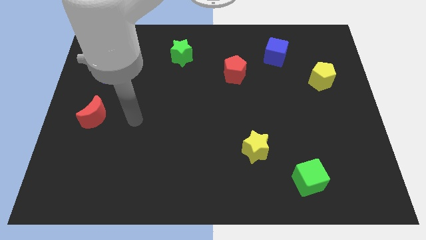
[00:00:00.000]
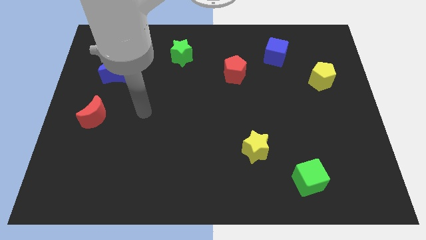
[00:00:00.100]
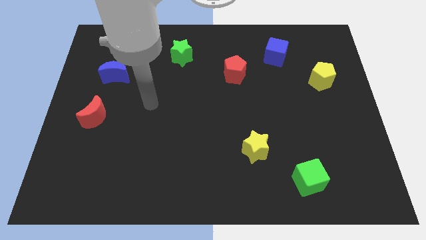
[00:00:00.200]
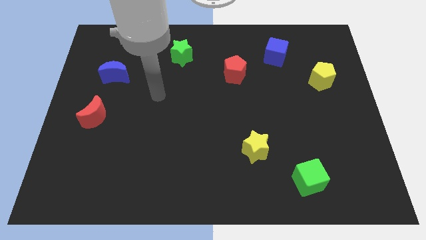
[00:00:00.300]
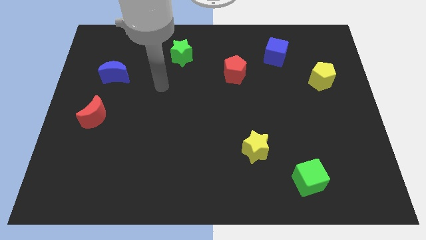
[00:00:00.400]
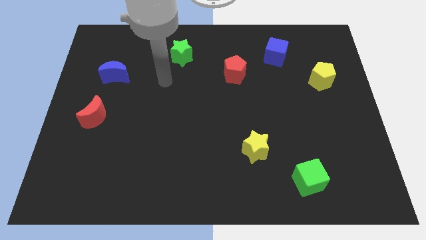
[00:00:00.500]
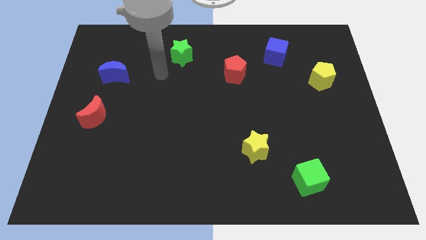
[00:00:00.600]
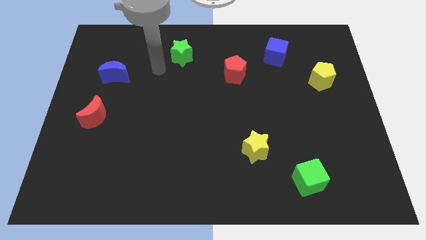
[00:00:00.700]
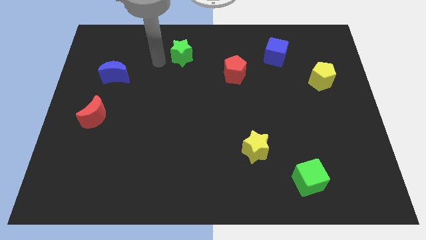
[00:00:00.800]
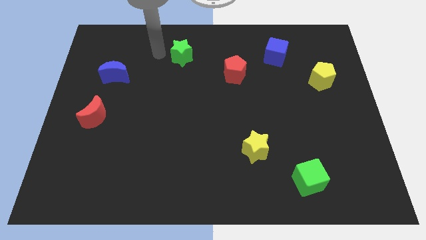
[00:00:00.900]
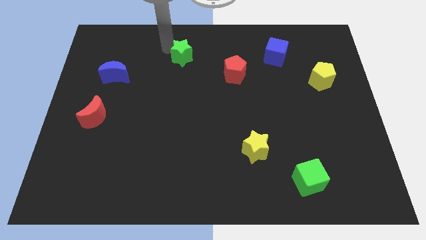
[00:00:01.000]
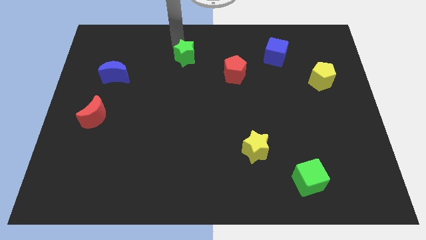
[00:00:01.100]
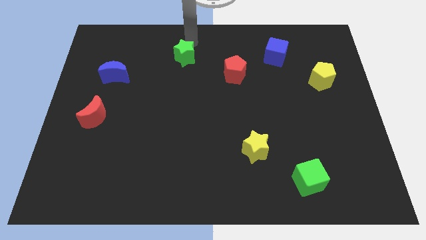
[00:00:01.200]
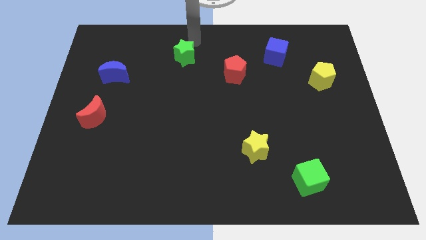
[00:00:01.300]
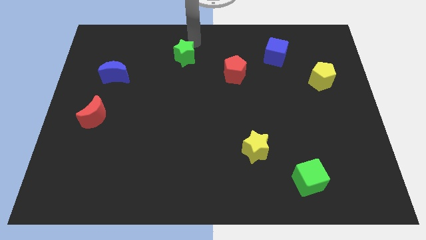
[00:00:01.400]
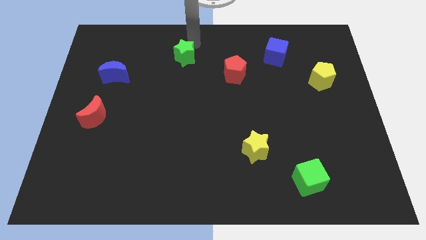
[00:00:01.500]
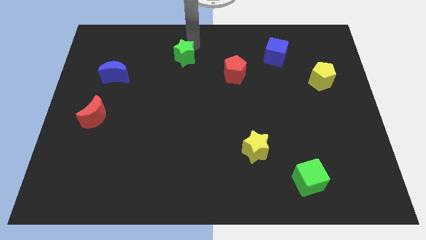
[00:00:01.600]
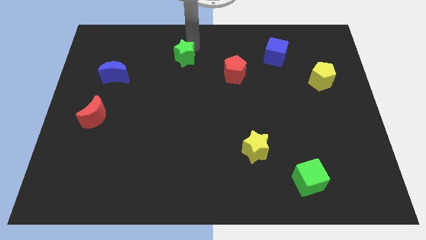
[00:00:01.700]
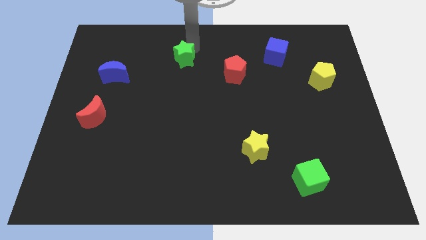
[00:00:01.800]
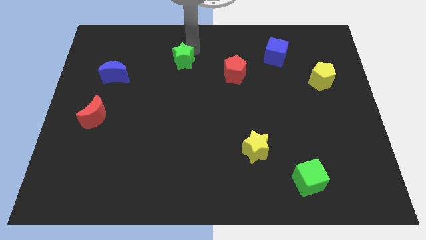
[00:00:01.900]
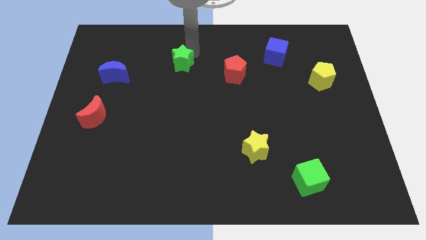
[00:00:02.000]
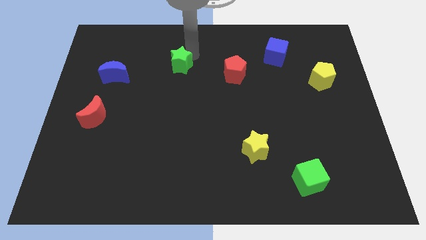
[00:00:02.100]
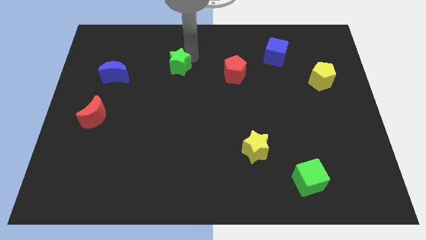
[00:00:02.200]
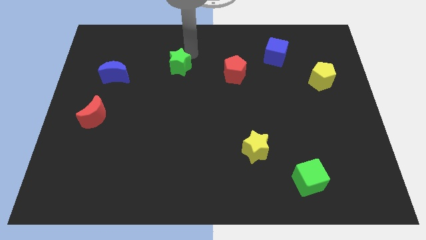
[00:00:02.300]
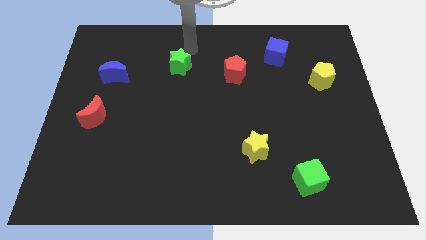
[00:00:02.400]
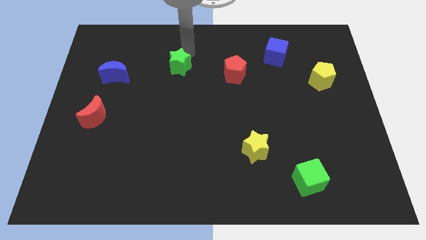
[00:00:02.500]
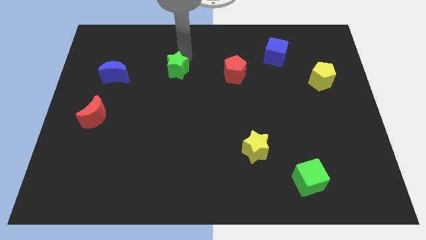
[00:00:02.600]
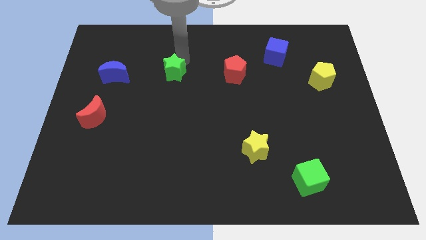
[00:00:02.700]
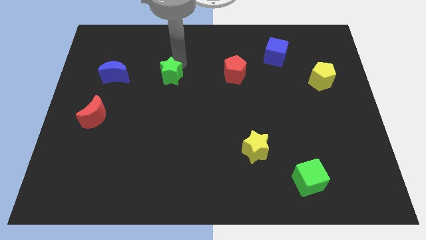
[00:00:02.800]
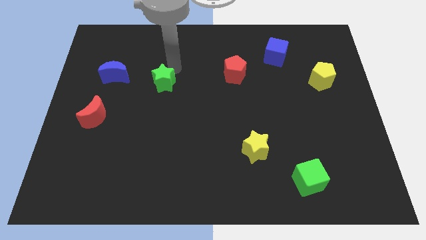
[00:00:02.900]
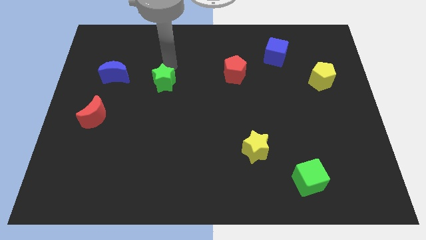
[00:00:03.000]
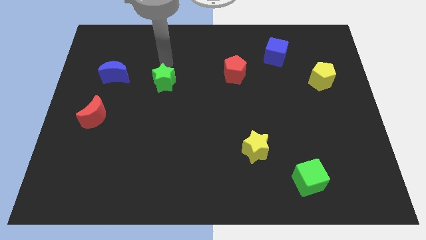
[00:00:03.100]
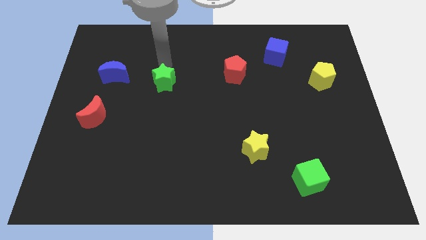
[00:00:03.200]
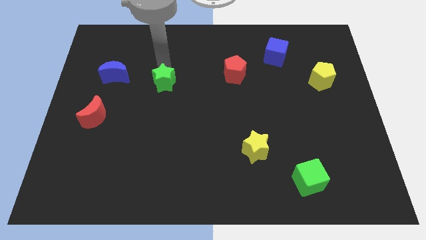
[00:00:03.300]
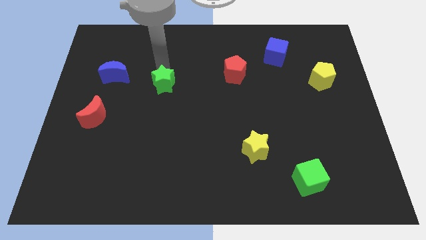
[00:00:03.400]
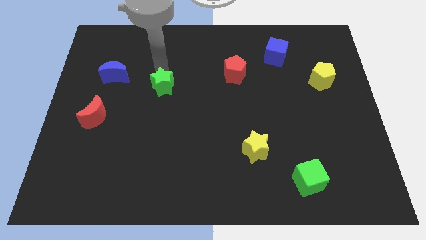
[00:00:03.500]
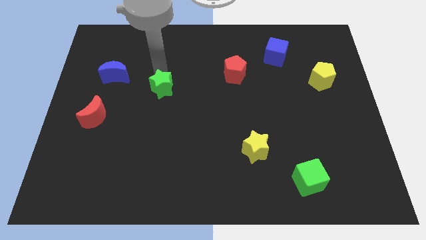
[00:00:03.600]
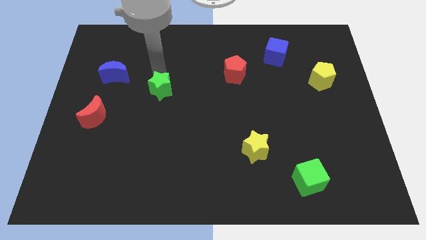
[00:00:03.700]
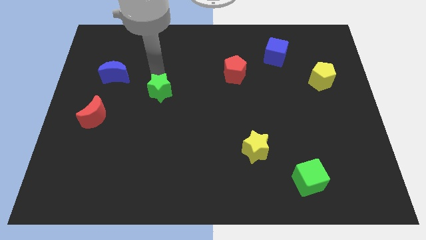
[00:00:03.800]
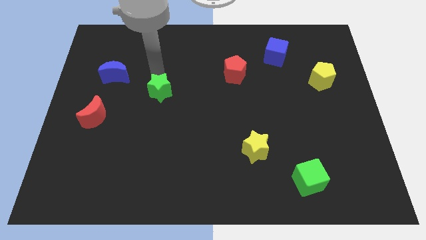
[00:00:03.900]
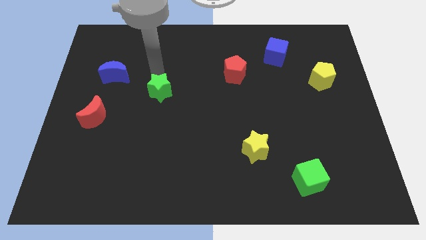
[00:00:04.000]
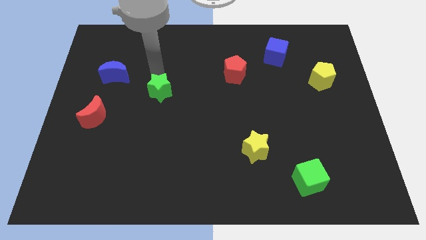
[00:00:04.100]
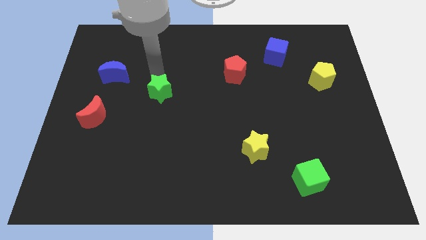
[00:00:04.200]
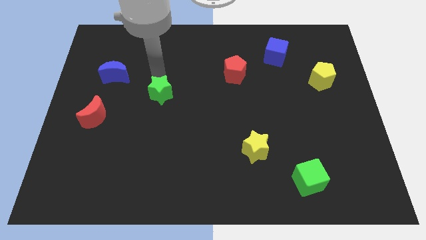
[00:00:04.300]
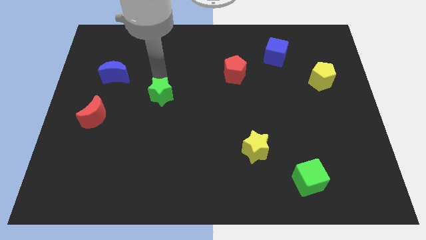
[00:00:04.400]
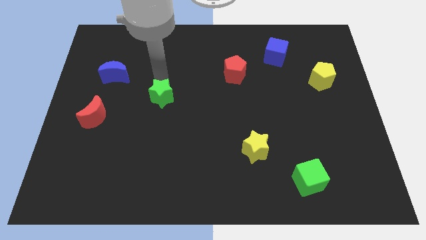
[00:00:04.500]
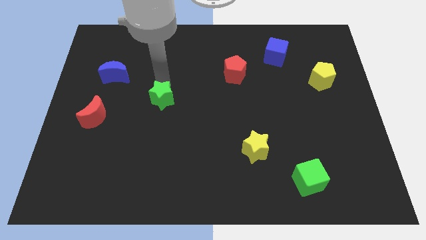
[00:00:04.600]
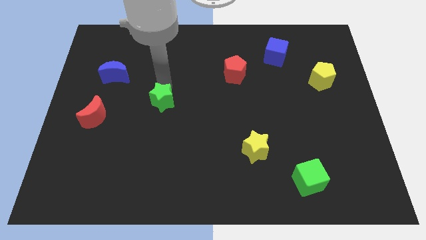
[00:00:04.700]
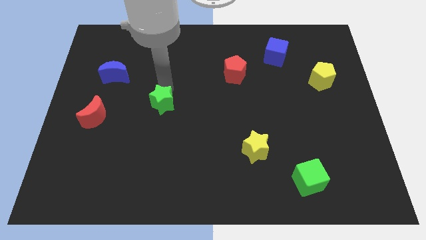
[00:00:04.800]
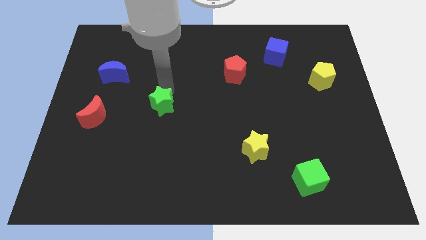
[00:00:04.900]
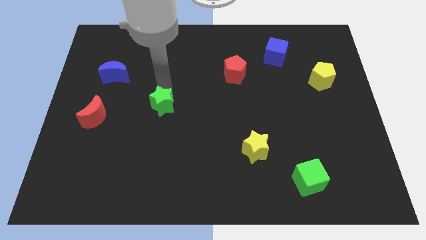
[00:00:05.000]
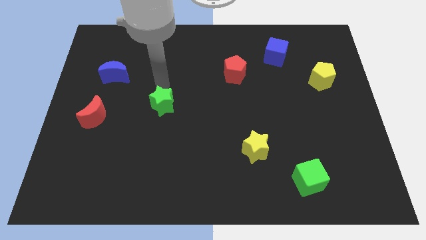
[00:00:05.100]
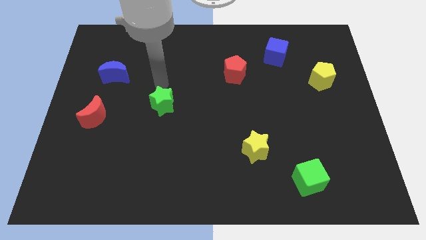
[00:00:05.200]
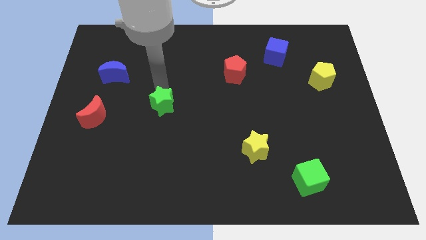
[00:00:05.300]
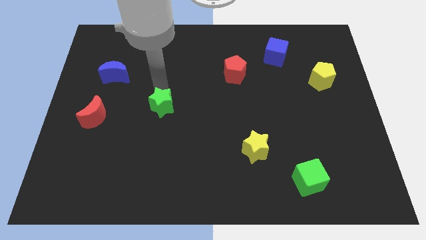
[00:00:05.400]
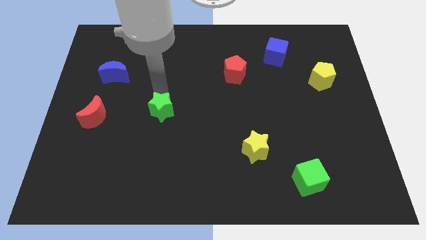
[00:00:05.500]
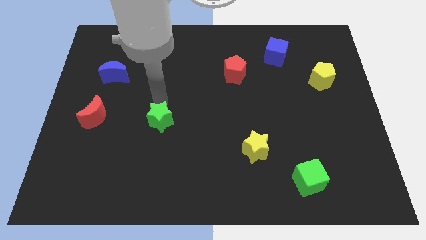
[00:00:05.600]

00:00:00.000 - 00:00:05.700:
push the green star downwards

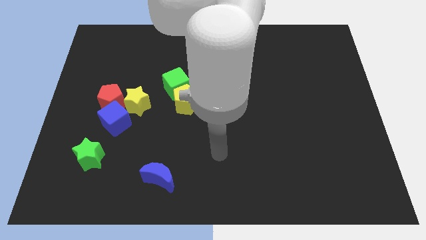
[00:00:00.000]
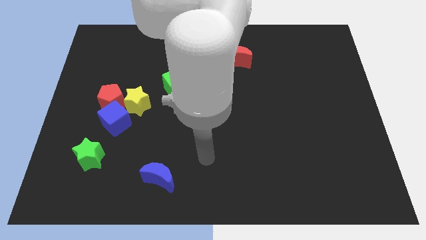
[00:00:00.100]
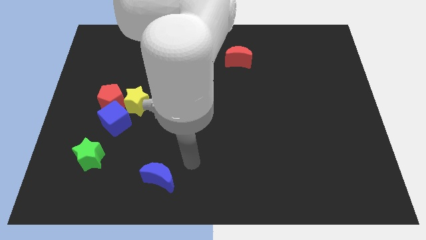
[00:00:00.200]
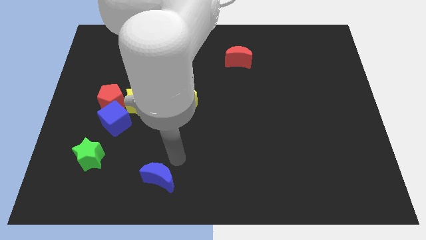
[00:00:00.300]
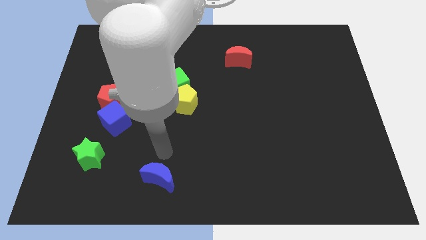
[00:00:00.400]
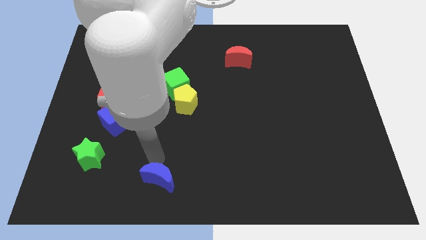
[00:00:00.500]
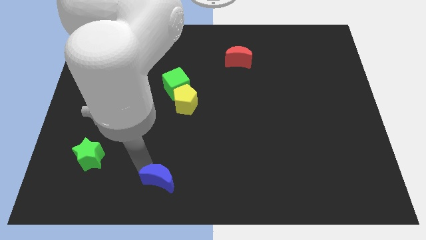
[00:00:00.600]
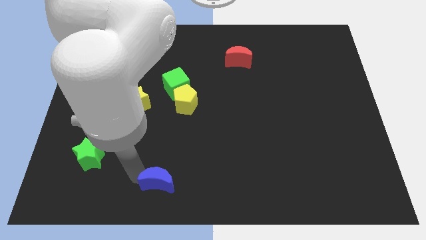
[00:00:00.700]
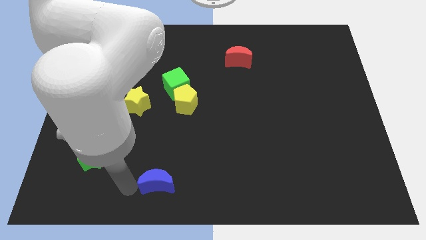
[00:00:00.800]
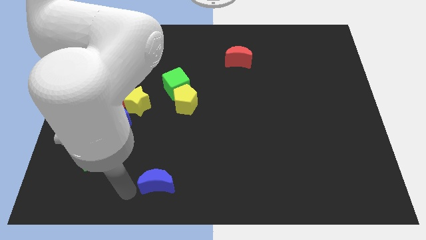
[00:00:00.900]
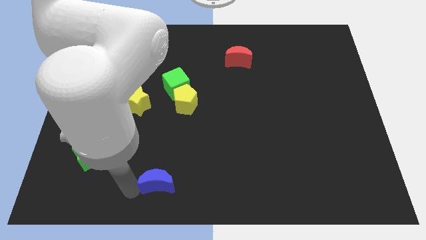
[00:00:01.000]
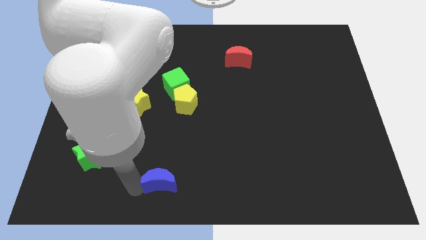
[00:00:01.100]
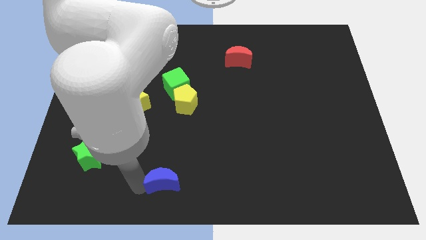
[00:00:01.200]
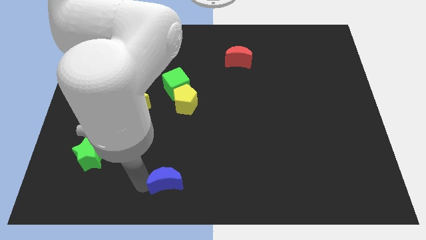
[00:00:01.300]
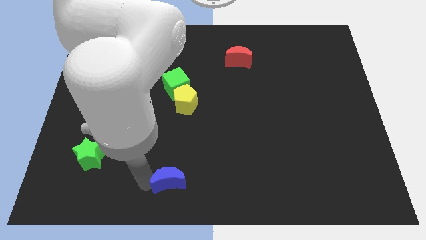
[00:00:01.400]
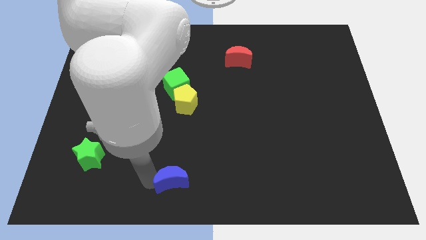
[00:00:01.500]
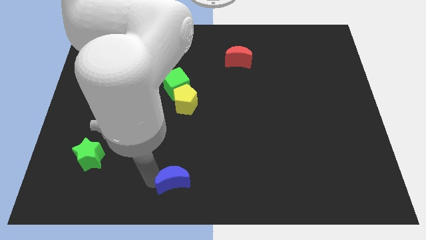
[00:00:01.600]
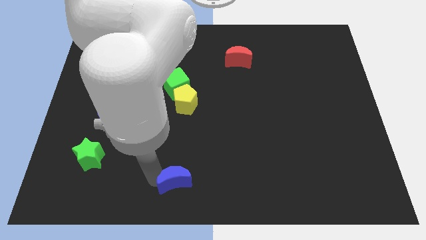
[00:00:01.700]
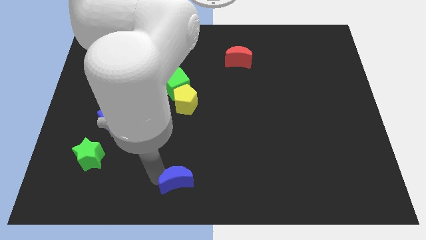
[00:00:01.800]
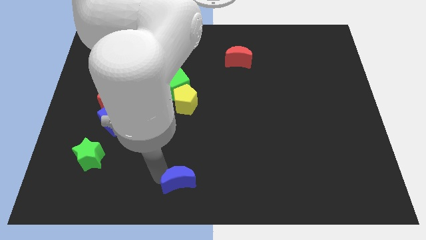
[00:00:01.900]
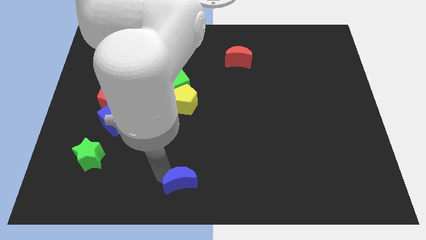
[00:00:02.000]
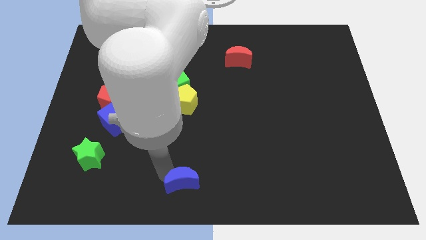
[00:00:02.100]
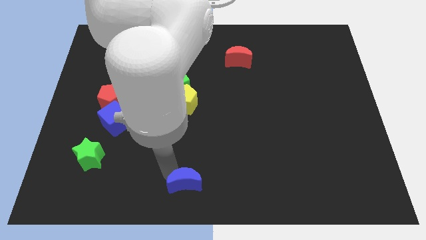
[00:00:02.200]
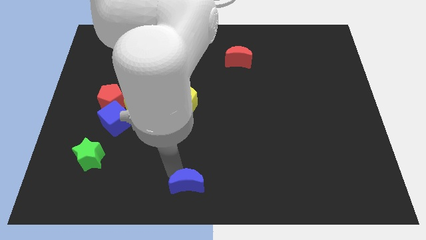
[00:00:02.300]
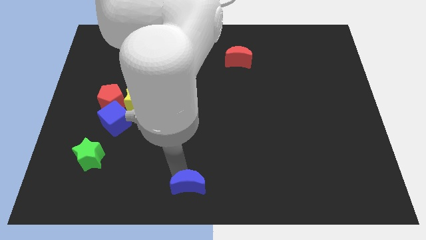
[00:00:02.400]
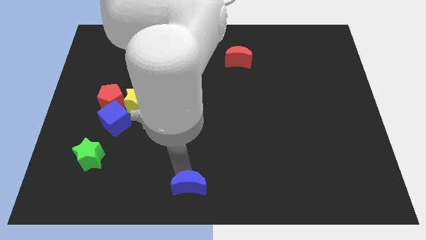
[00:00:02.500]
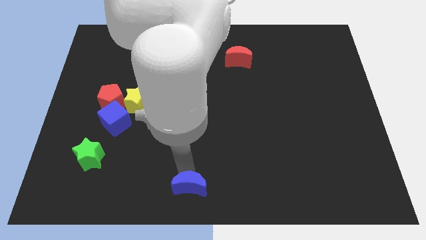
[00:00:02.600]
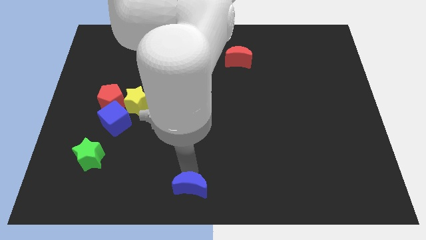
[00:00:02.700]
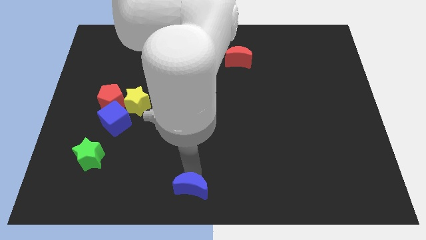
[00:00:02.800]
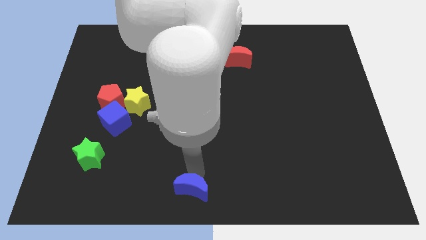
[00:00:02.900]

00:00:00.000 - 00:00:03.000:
slide the blue moon somewhat right
